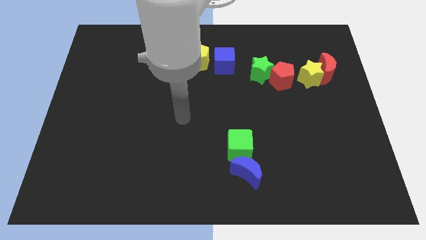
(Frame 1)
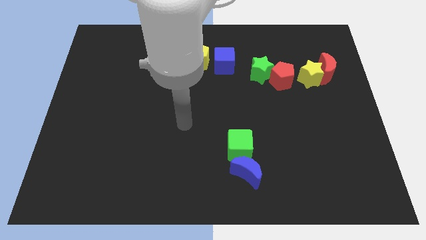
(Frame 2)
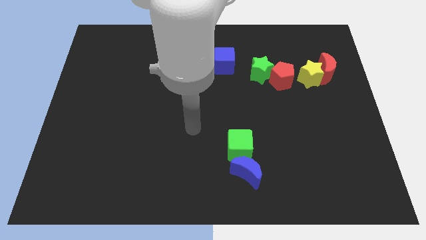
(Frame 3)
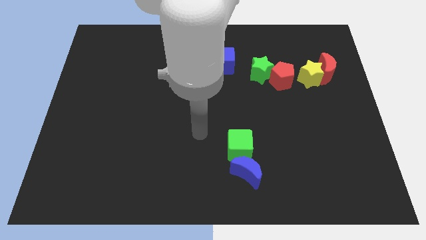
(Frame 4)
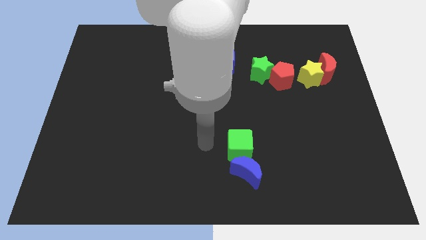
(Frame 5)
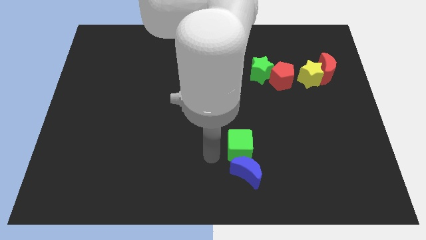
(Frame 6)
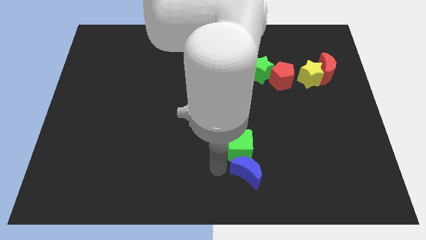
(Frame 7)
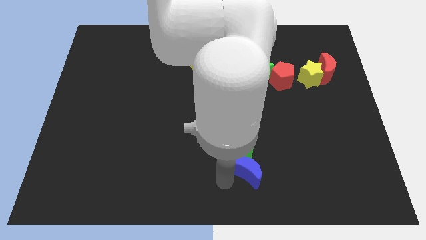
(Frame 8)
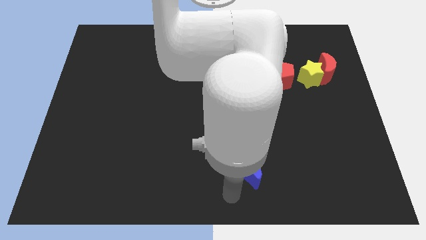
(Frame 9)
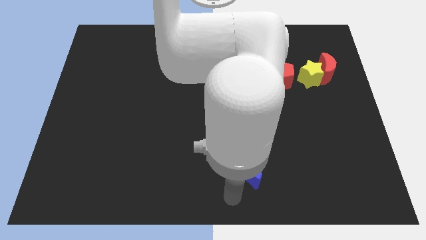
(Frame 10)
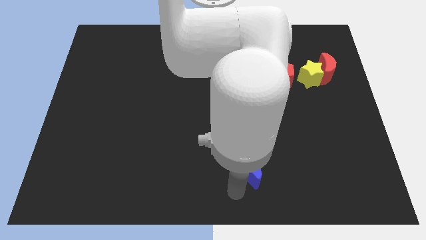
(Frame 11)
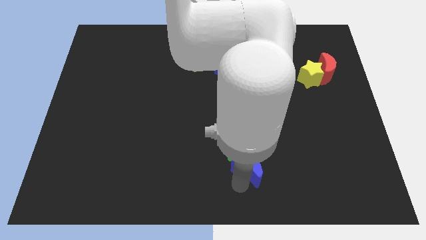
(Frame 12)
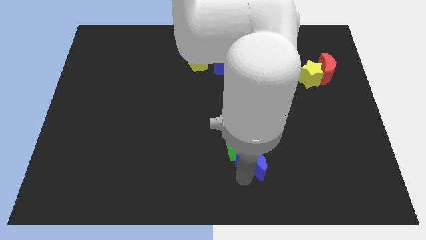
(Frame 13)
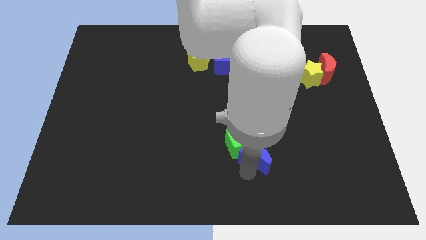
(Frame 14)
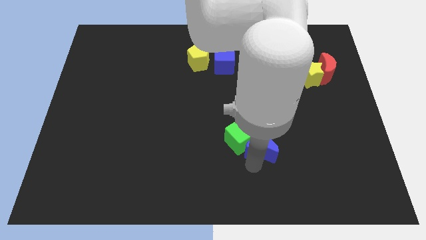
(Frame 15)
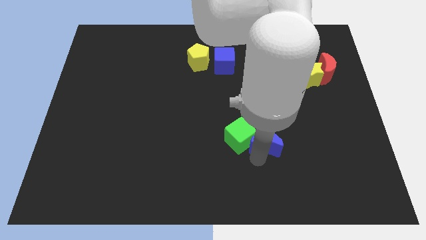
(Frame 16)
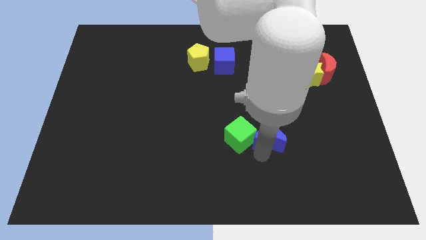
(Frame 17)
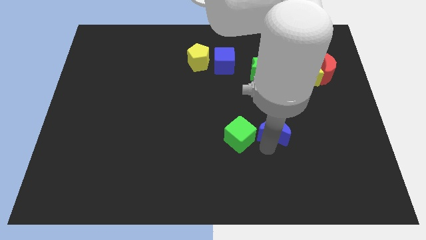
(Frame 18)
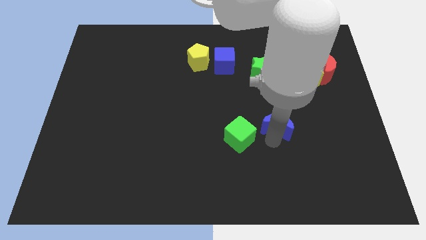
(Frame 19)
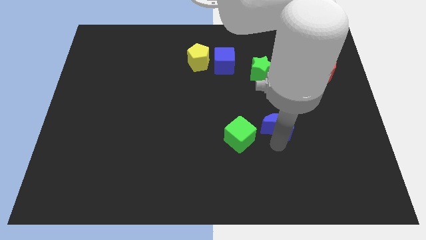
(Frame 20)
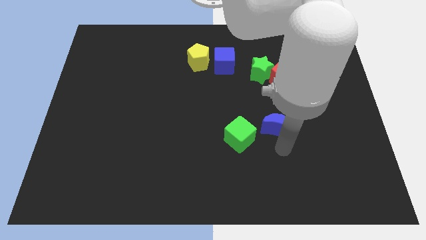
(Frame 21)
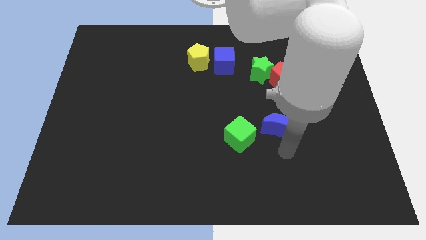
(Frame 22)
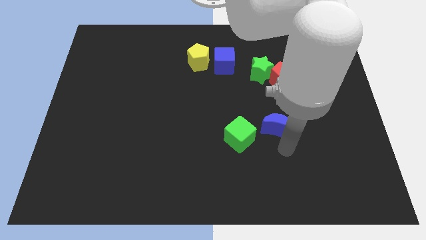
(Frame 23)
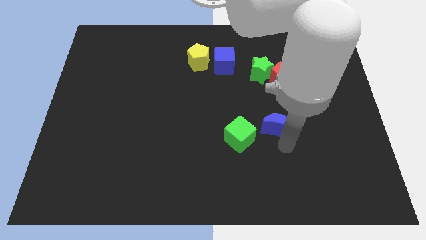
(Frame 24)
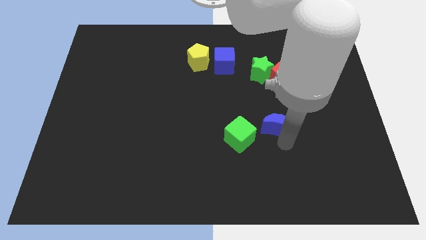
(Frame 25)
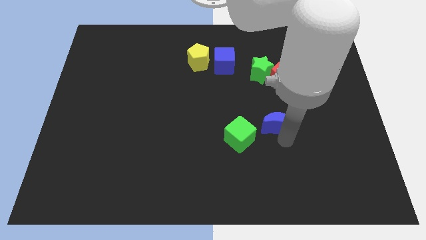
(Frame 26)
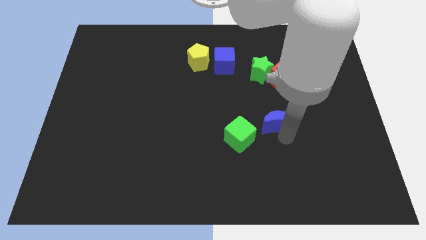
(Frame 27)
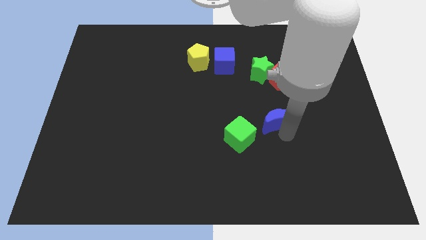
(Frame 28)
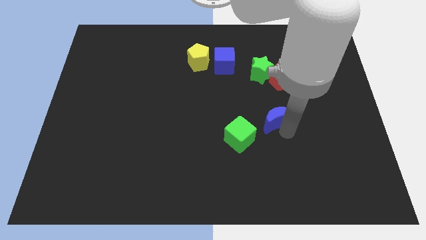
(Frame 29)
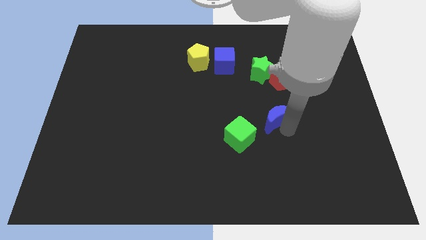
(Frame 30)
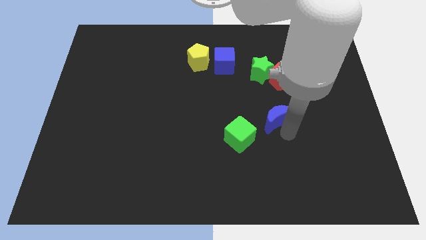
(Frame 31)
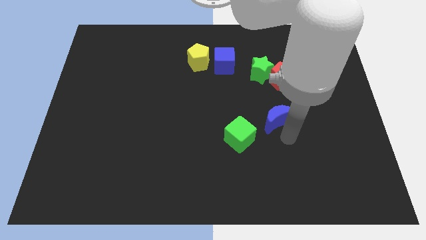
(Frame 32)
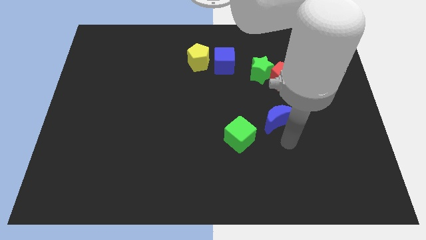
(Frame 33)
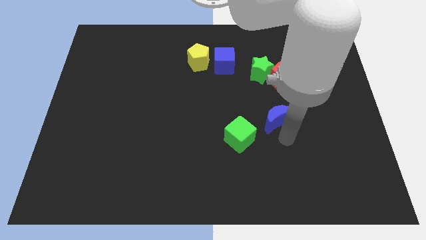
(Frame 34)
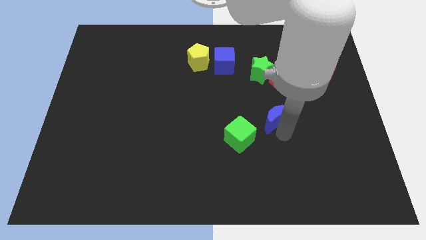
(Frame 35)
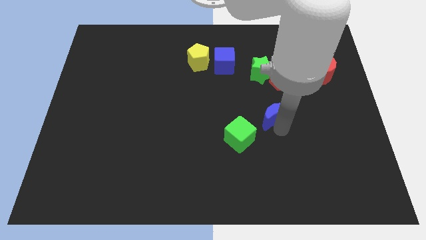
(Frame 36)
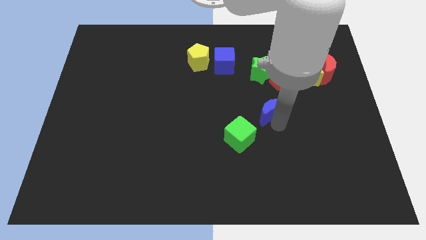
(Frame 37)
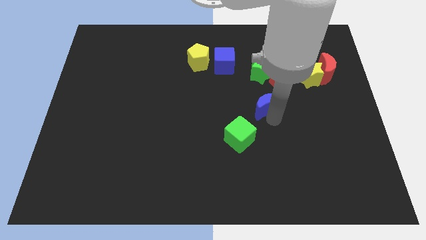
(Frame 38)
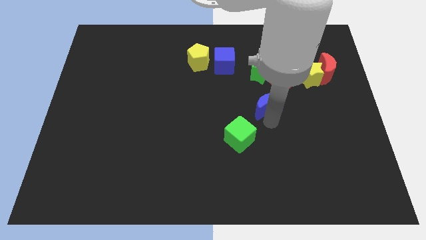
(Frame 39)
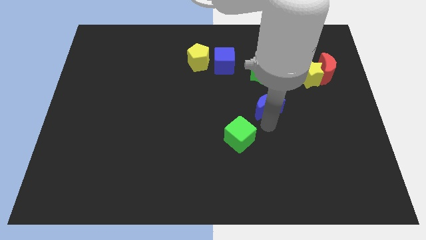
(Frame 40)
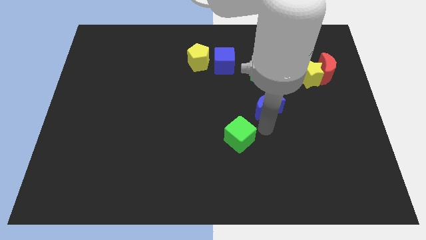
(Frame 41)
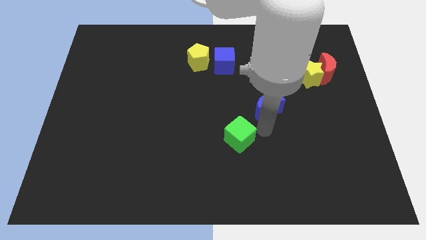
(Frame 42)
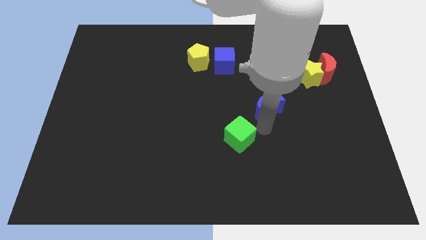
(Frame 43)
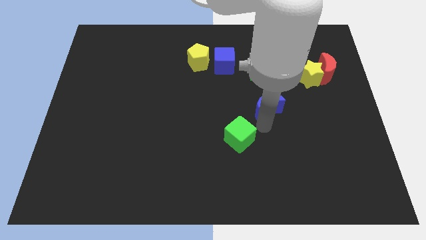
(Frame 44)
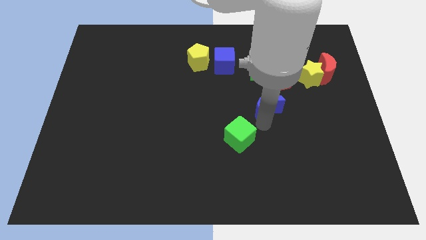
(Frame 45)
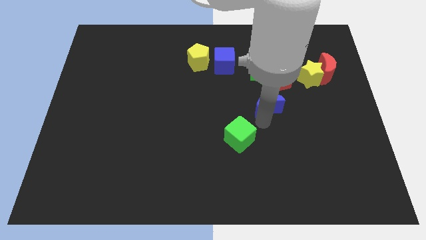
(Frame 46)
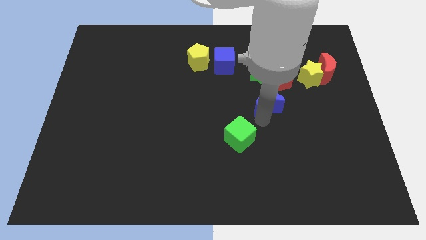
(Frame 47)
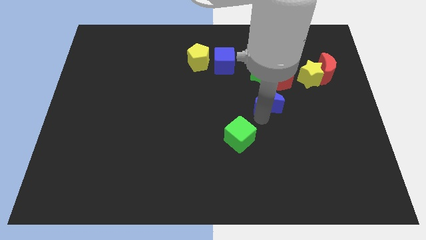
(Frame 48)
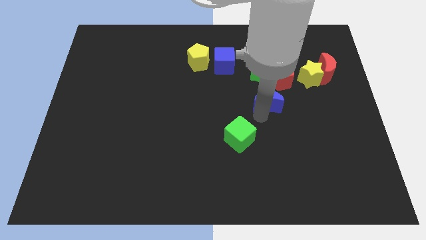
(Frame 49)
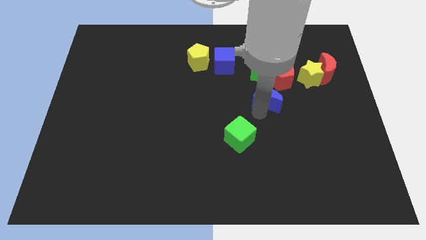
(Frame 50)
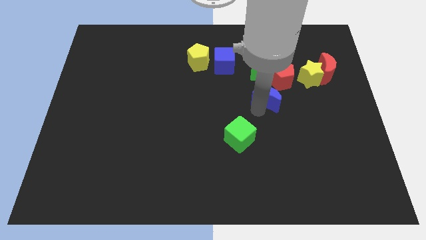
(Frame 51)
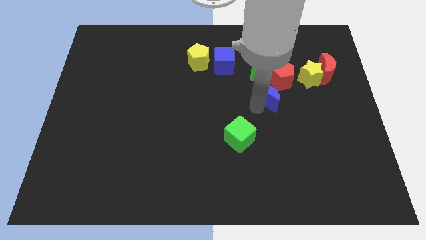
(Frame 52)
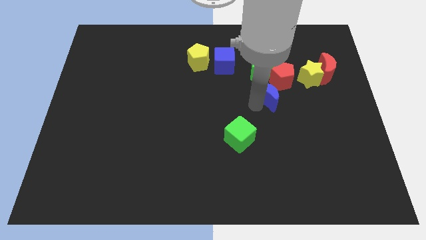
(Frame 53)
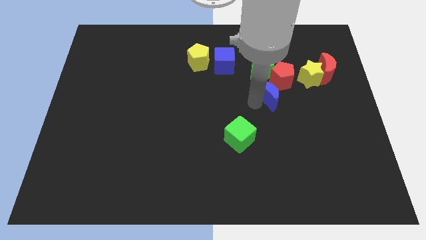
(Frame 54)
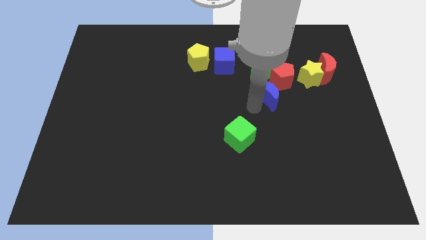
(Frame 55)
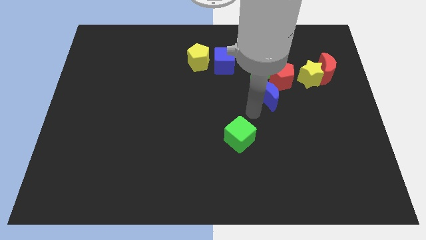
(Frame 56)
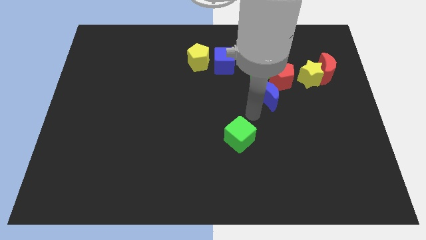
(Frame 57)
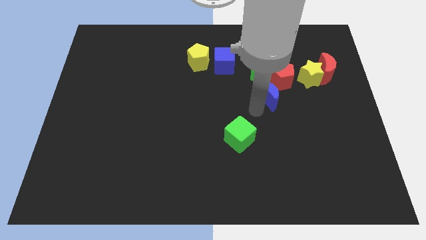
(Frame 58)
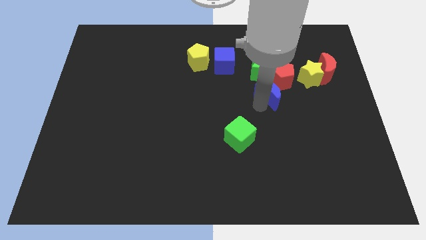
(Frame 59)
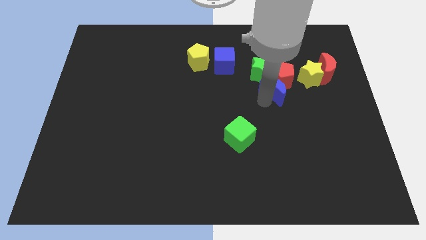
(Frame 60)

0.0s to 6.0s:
put the blue moon towards the red pentagon

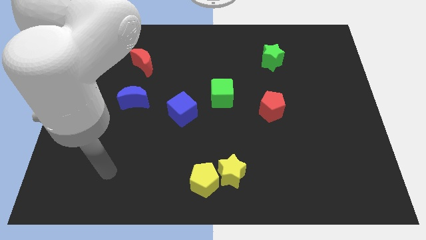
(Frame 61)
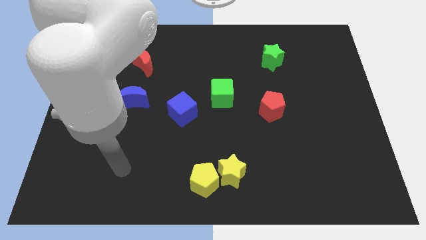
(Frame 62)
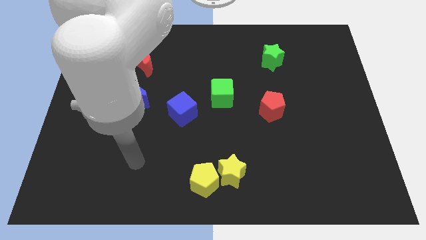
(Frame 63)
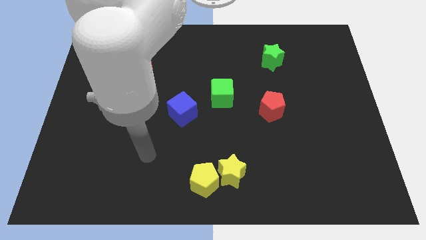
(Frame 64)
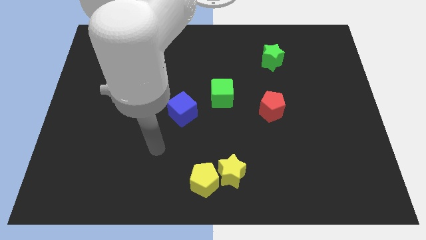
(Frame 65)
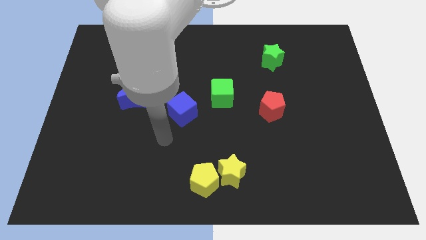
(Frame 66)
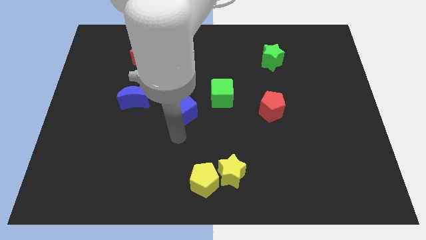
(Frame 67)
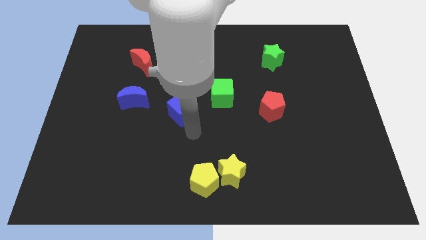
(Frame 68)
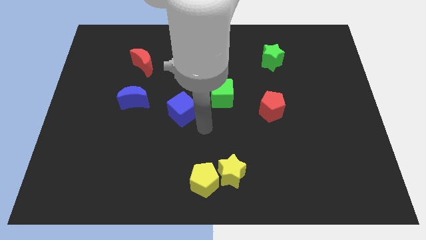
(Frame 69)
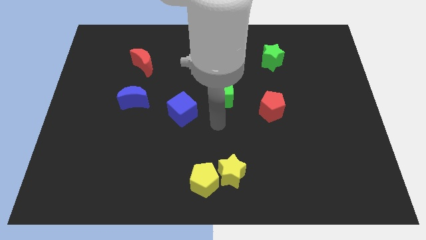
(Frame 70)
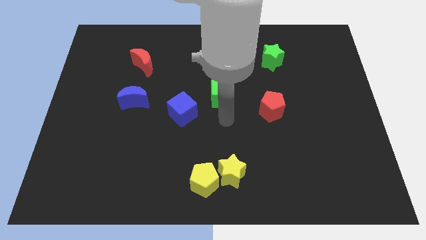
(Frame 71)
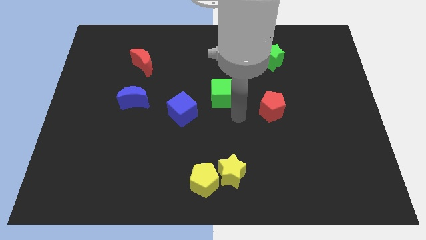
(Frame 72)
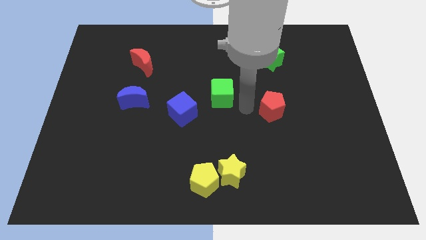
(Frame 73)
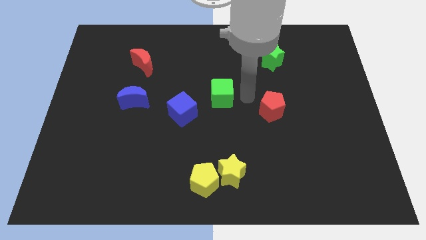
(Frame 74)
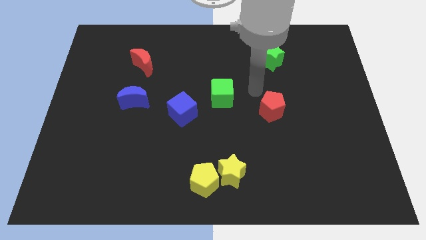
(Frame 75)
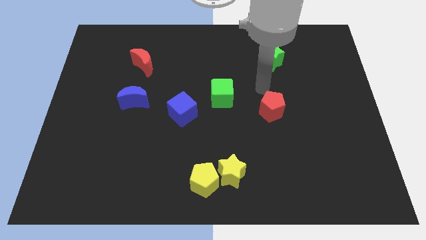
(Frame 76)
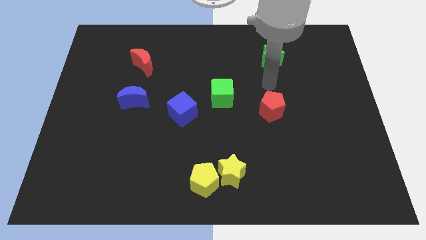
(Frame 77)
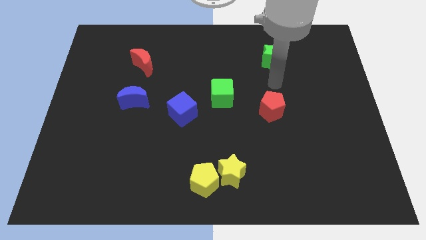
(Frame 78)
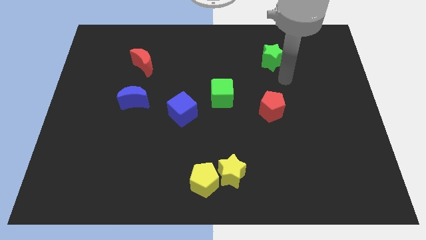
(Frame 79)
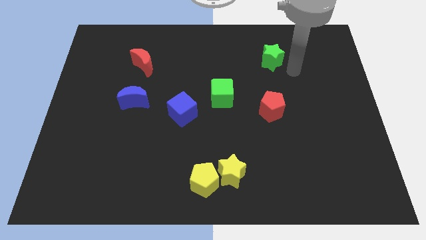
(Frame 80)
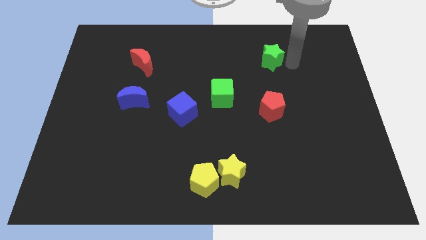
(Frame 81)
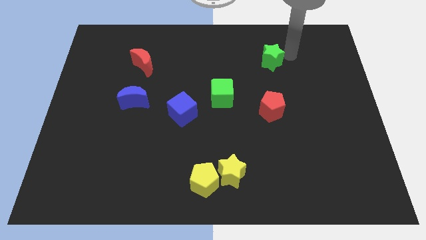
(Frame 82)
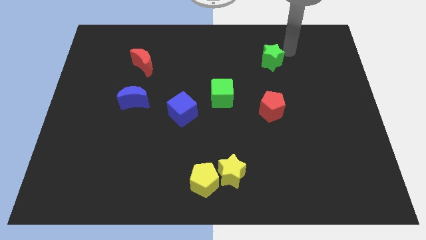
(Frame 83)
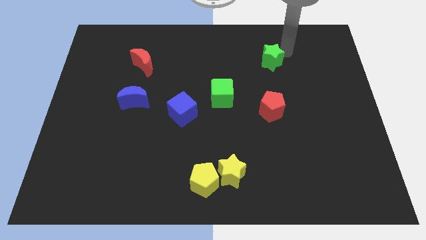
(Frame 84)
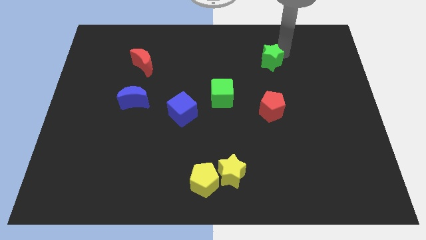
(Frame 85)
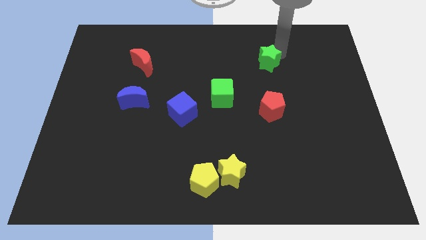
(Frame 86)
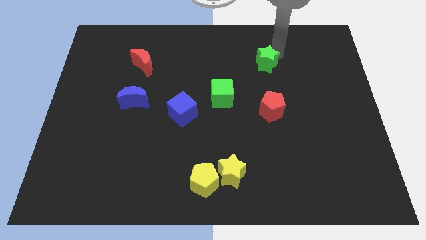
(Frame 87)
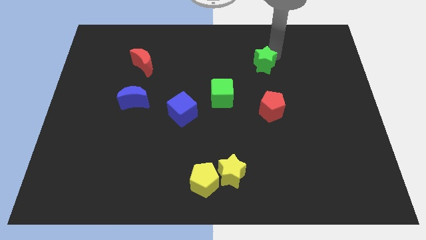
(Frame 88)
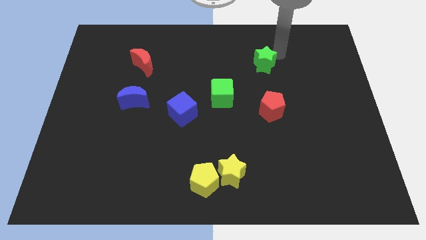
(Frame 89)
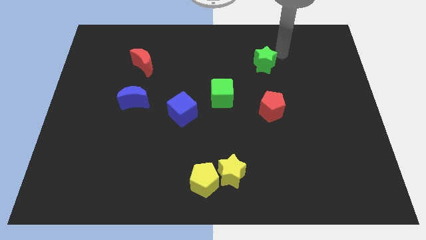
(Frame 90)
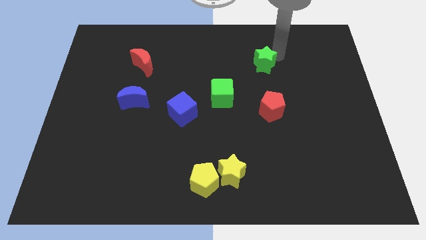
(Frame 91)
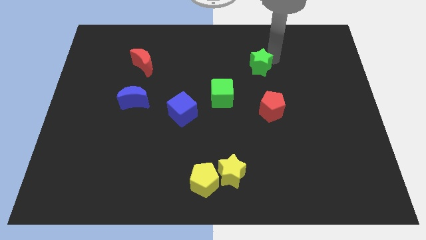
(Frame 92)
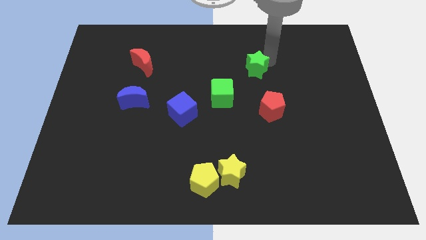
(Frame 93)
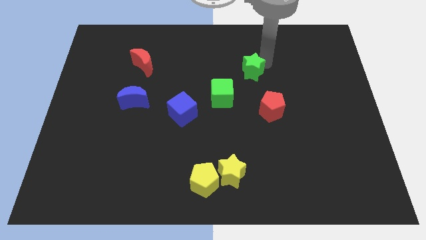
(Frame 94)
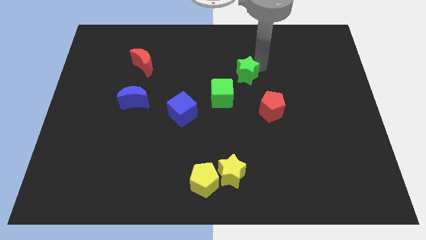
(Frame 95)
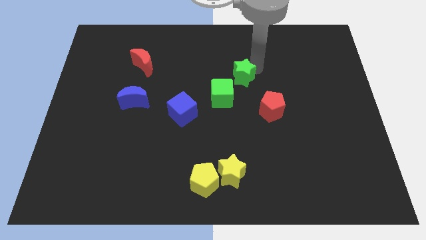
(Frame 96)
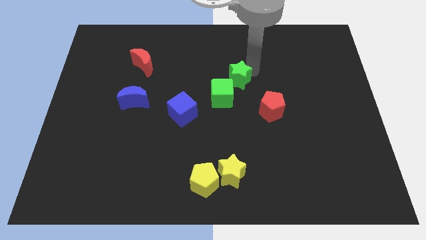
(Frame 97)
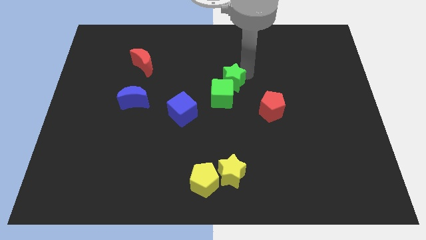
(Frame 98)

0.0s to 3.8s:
slide the green star to the green cube
